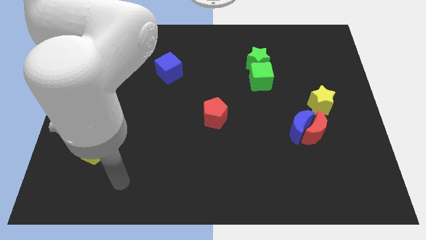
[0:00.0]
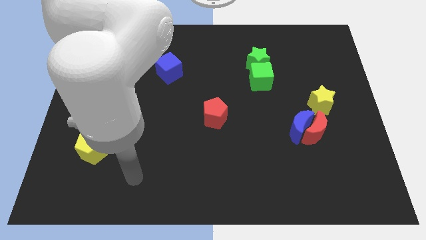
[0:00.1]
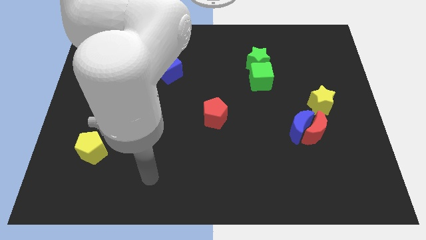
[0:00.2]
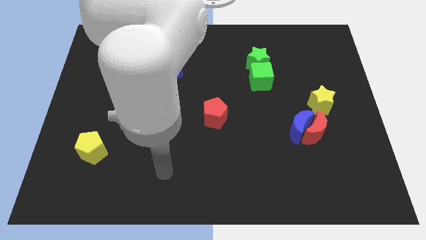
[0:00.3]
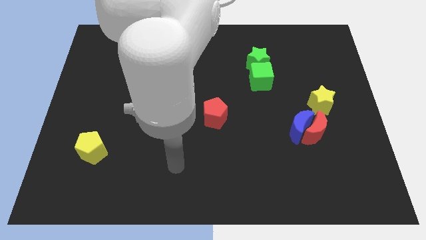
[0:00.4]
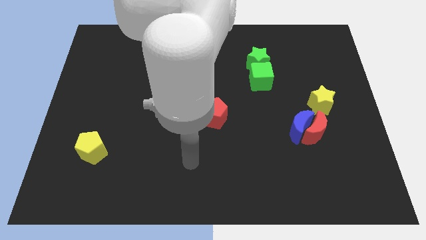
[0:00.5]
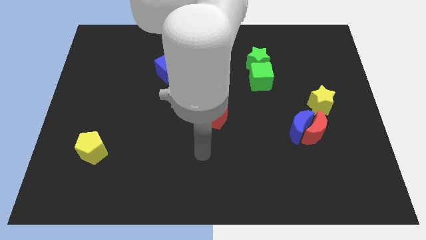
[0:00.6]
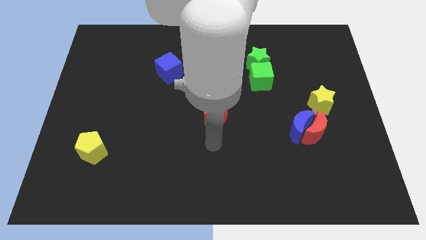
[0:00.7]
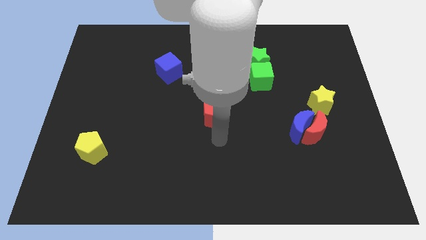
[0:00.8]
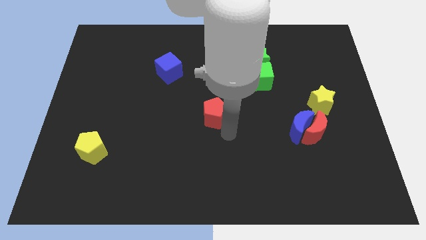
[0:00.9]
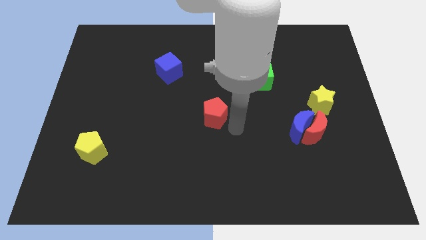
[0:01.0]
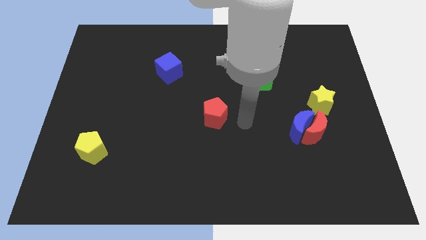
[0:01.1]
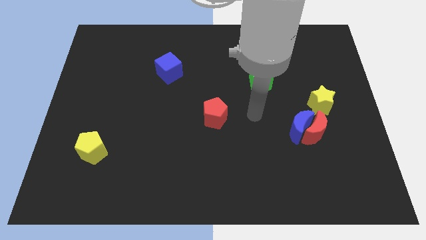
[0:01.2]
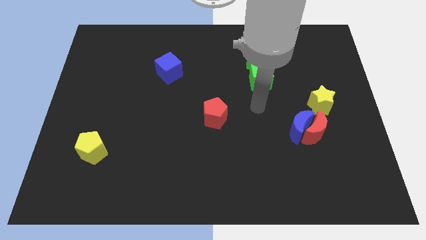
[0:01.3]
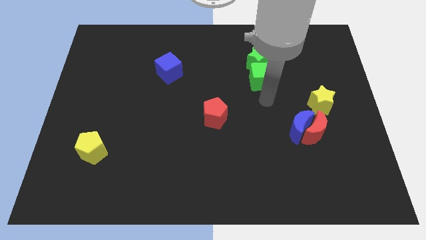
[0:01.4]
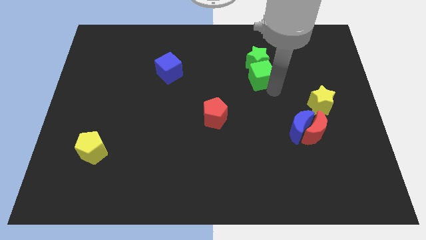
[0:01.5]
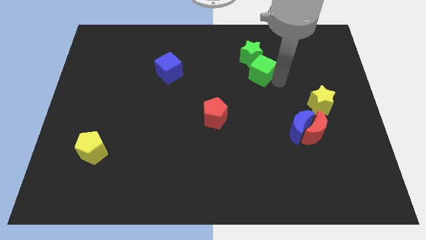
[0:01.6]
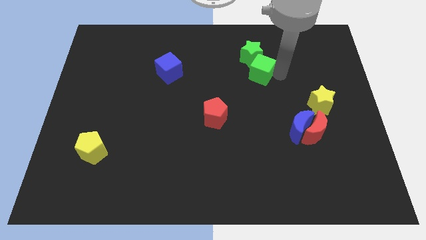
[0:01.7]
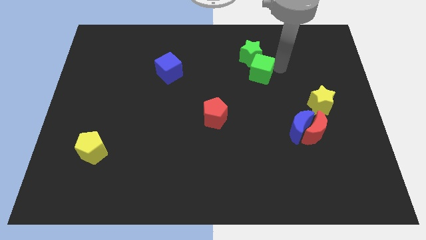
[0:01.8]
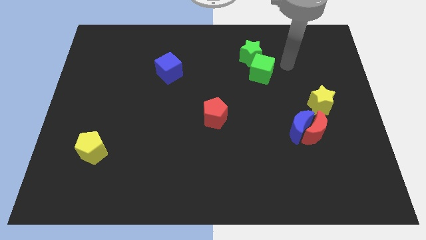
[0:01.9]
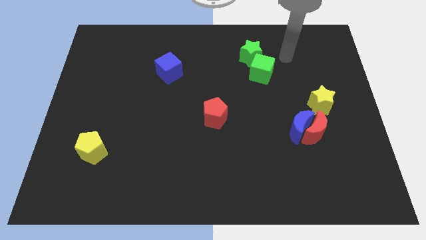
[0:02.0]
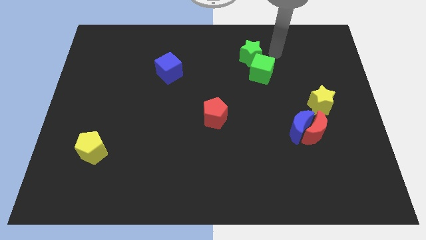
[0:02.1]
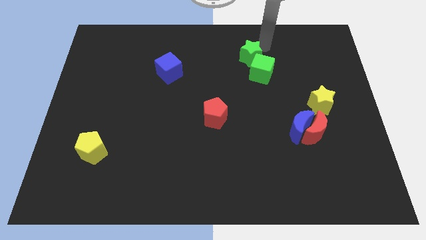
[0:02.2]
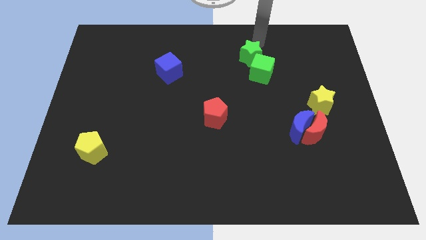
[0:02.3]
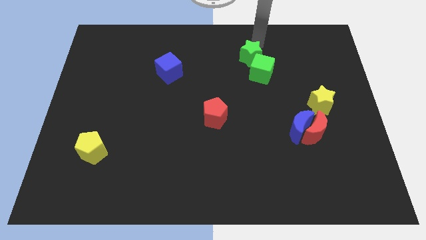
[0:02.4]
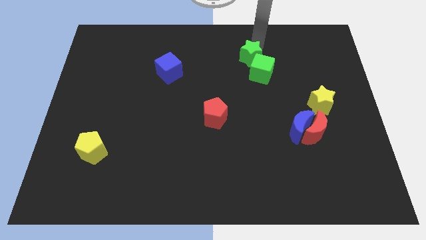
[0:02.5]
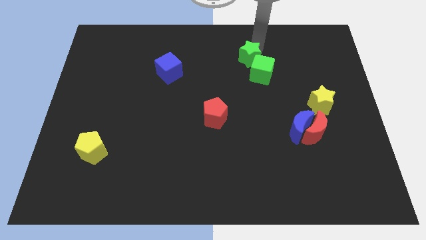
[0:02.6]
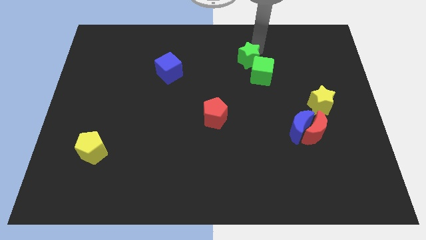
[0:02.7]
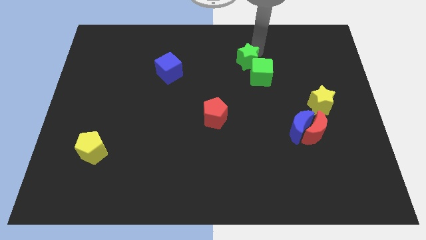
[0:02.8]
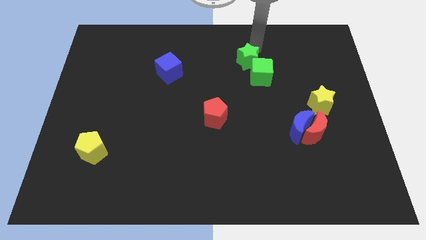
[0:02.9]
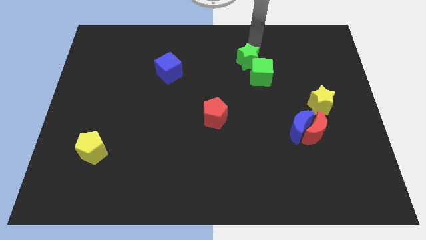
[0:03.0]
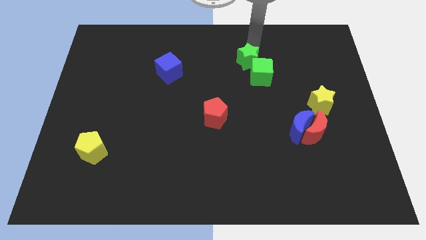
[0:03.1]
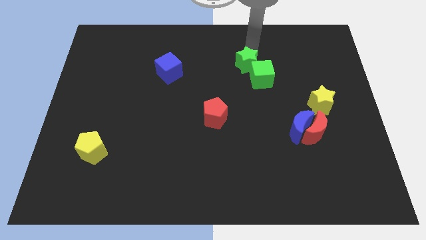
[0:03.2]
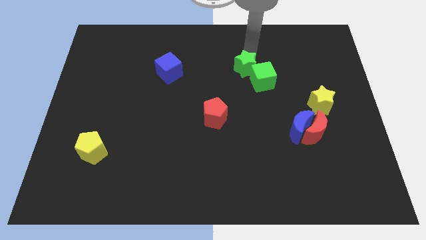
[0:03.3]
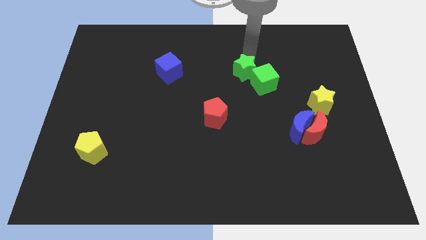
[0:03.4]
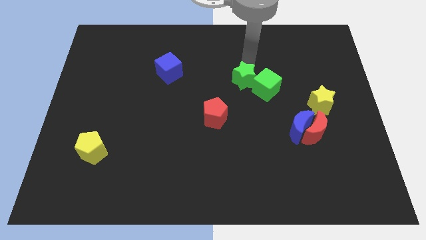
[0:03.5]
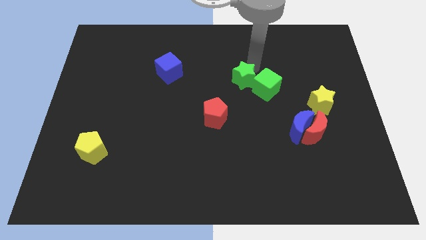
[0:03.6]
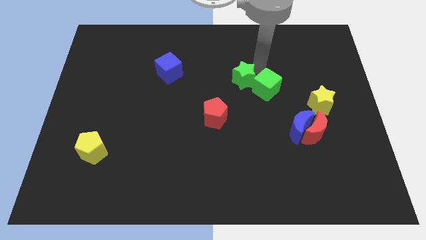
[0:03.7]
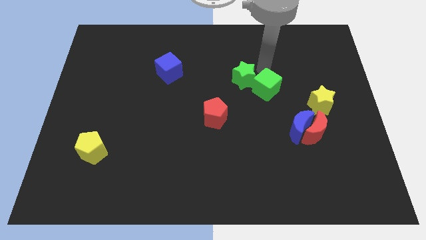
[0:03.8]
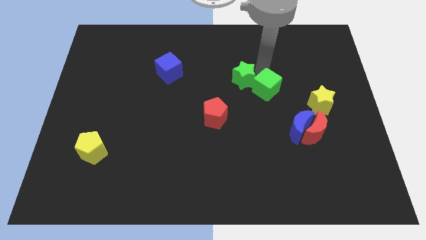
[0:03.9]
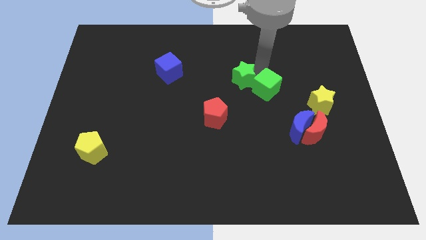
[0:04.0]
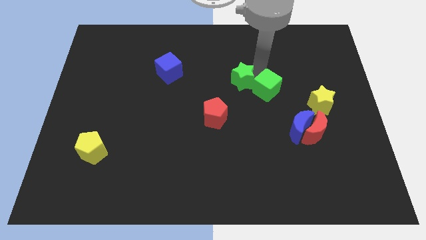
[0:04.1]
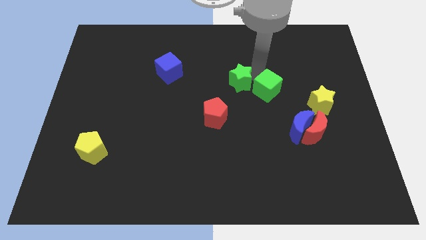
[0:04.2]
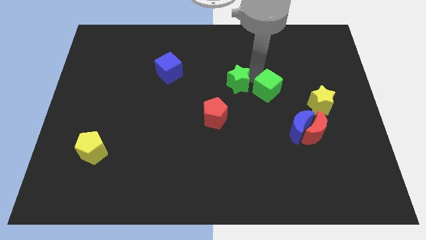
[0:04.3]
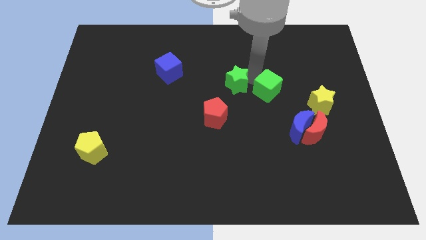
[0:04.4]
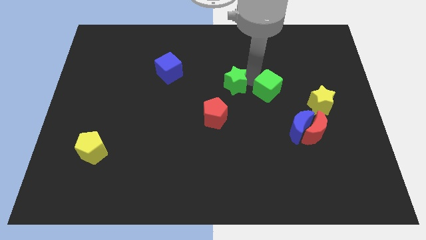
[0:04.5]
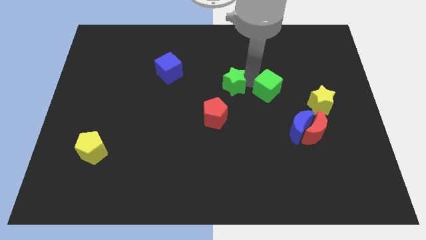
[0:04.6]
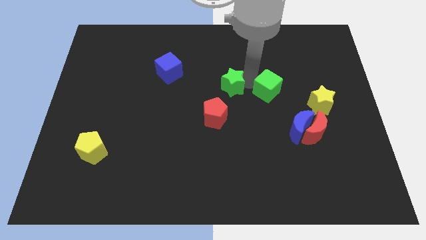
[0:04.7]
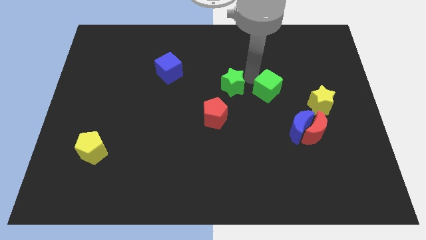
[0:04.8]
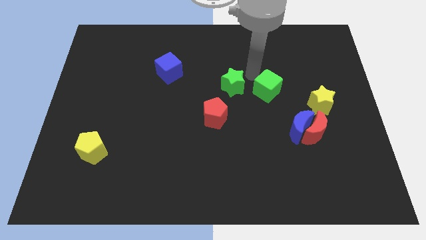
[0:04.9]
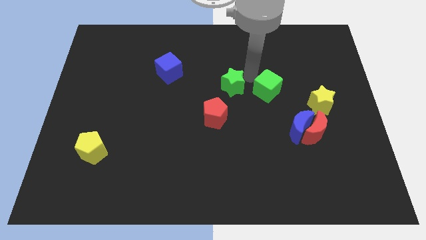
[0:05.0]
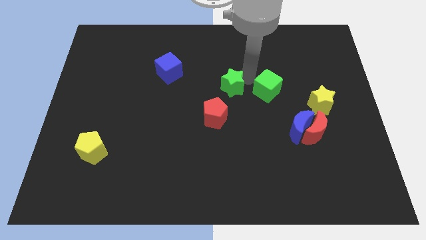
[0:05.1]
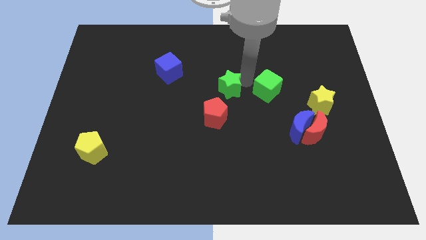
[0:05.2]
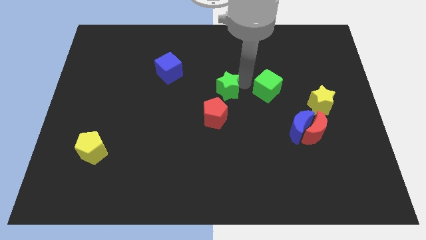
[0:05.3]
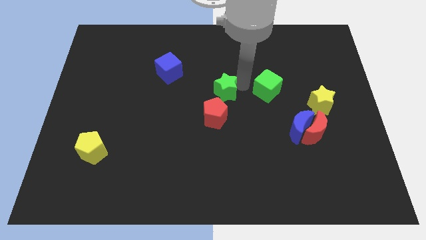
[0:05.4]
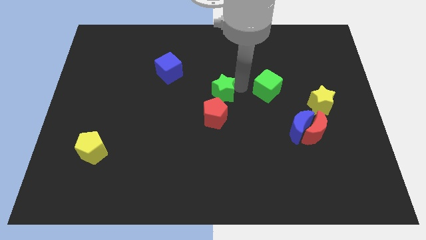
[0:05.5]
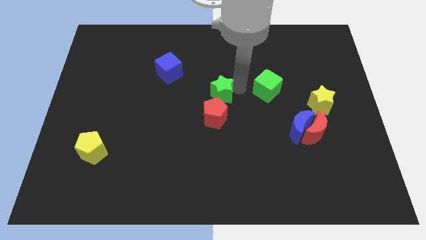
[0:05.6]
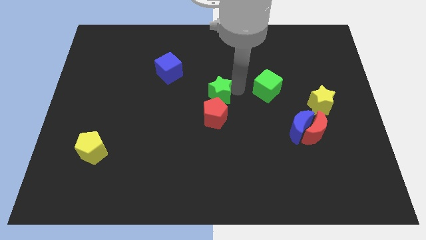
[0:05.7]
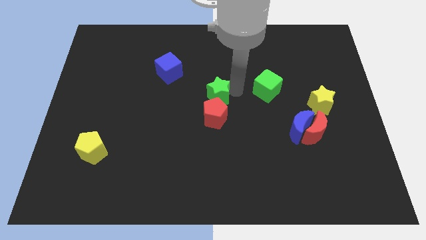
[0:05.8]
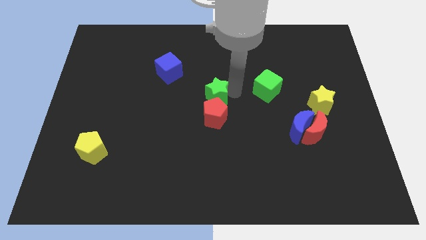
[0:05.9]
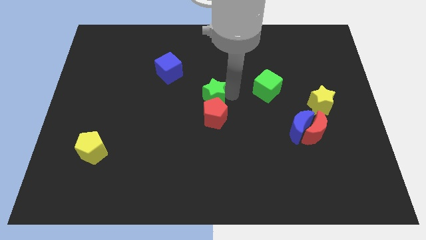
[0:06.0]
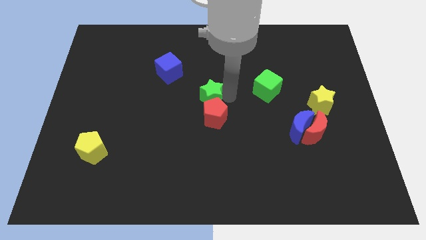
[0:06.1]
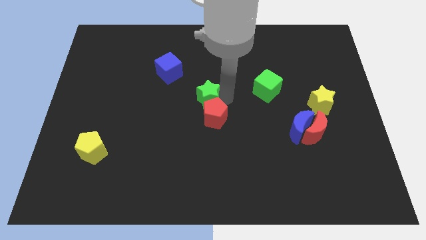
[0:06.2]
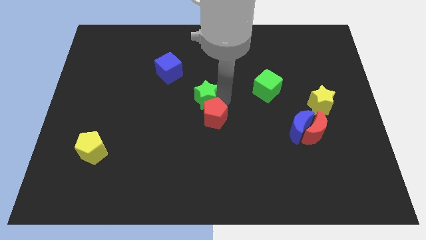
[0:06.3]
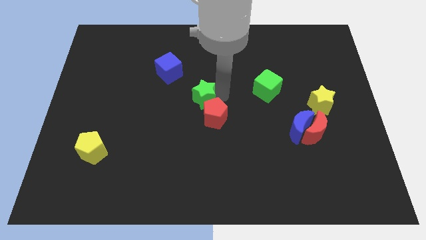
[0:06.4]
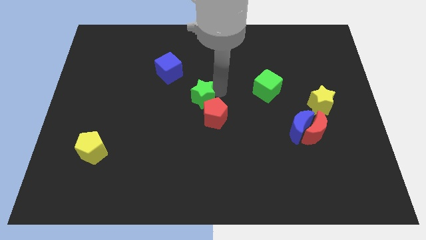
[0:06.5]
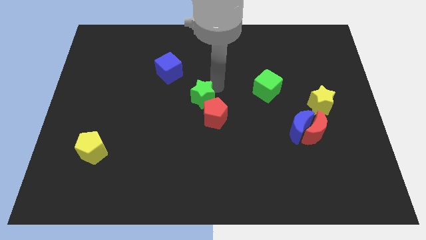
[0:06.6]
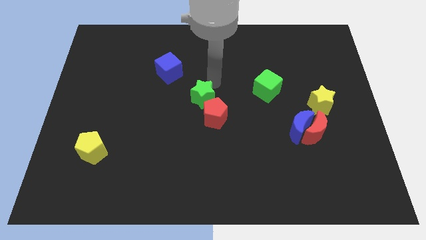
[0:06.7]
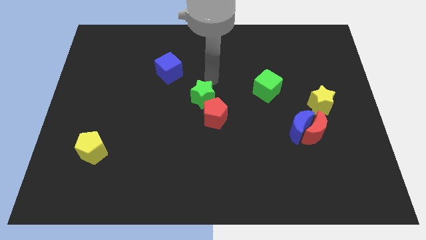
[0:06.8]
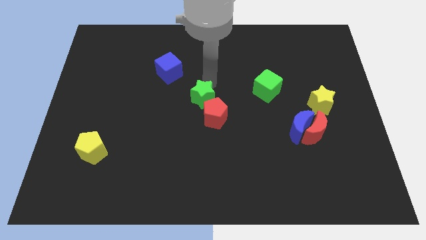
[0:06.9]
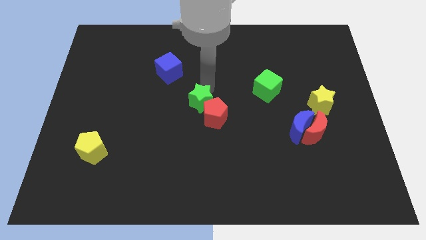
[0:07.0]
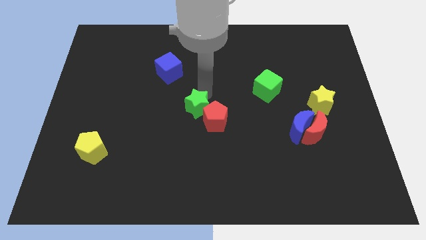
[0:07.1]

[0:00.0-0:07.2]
slide the green star diagonally down and to the left

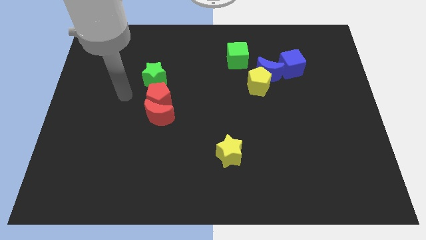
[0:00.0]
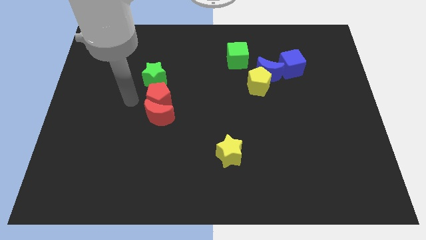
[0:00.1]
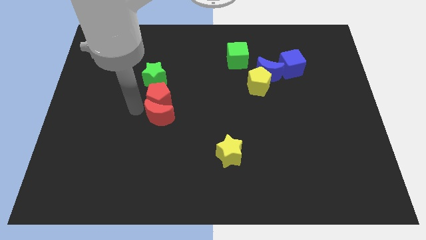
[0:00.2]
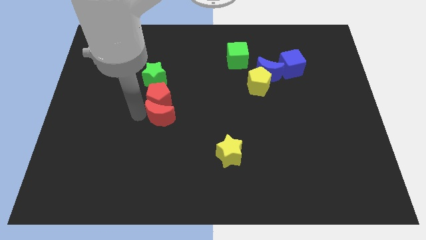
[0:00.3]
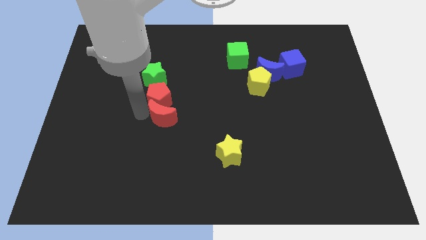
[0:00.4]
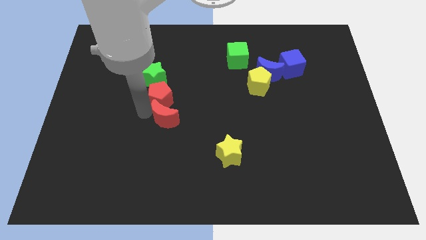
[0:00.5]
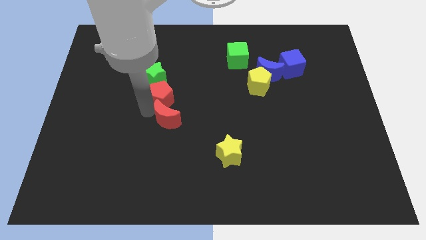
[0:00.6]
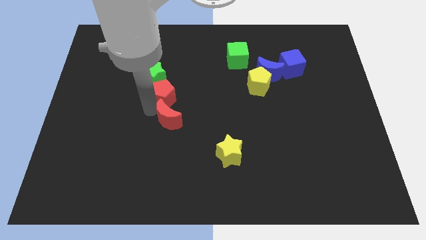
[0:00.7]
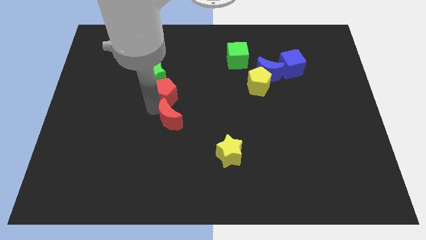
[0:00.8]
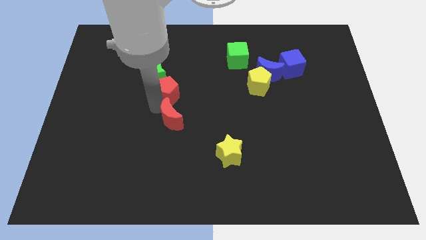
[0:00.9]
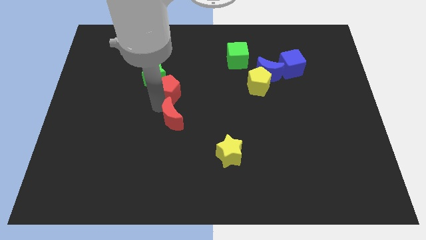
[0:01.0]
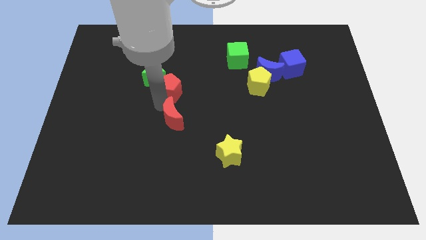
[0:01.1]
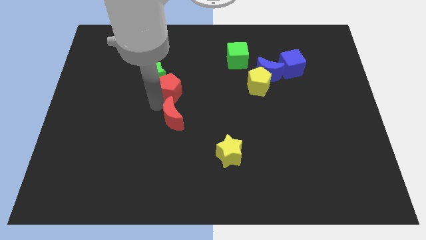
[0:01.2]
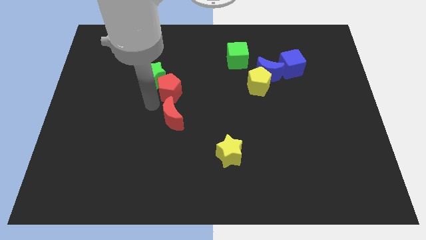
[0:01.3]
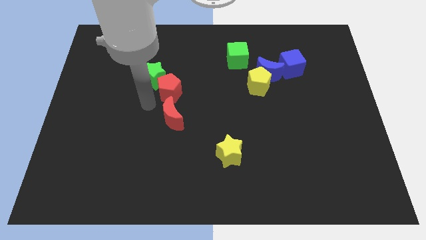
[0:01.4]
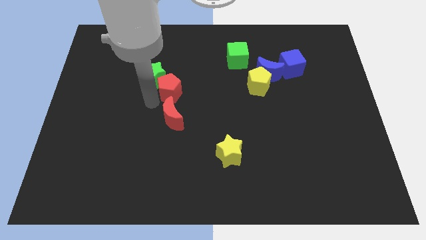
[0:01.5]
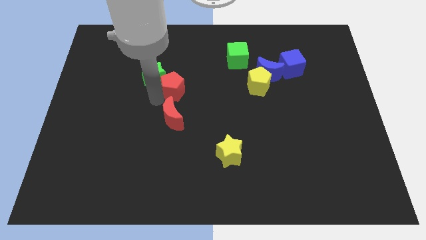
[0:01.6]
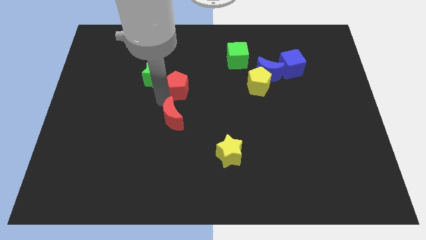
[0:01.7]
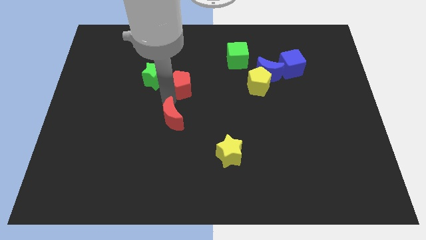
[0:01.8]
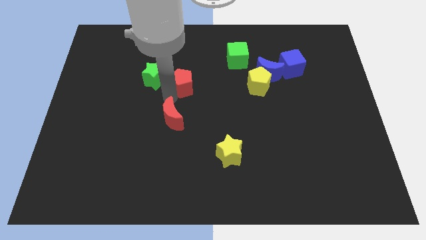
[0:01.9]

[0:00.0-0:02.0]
slightly move the red pentagon upwards and right
